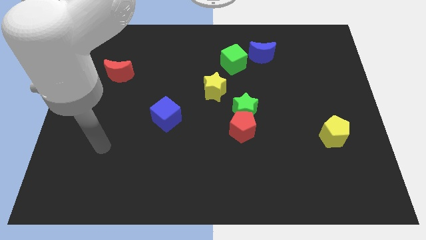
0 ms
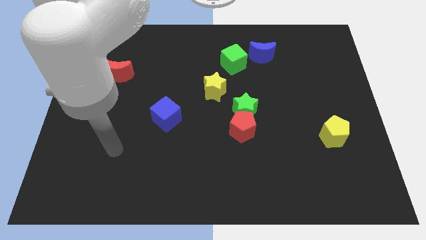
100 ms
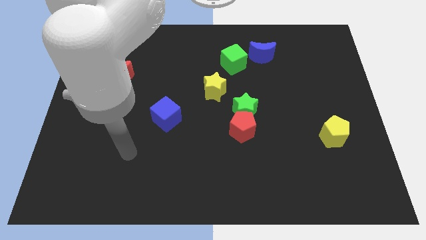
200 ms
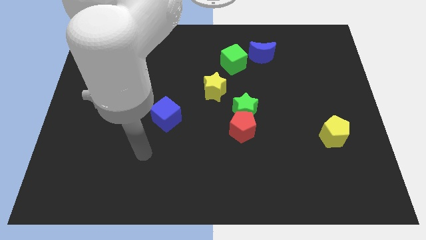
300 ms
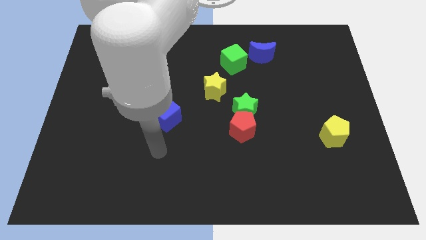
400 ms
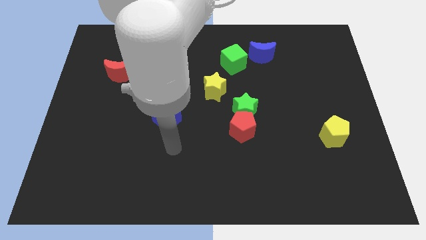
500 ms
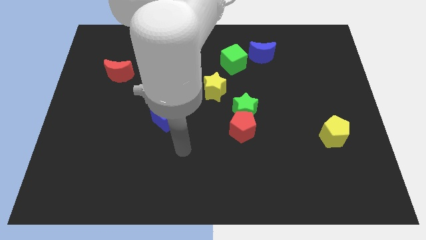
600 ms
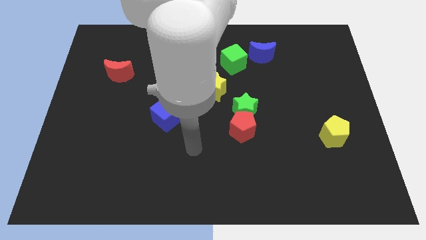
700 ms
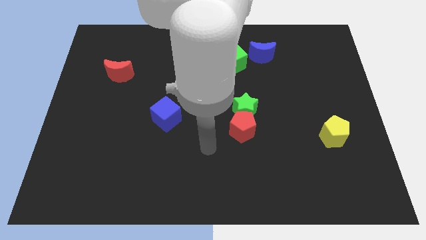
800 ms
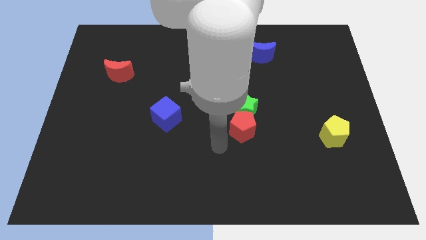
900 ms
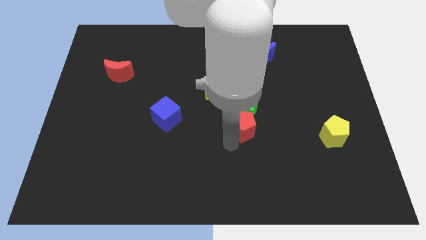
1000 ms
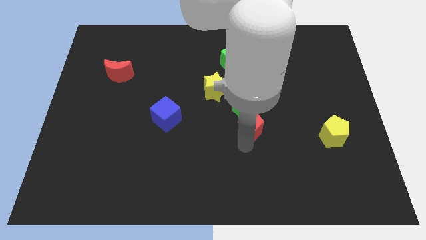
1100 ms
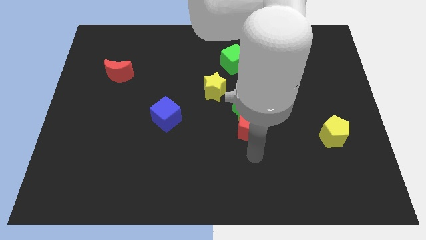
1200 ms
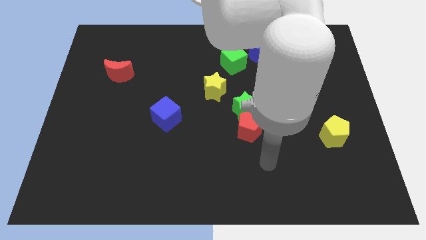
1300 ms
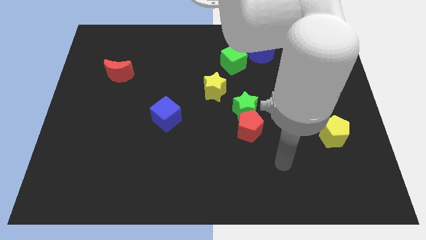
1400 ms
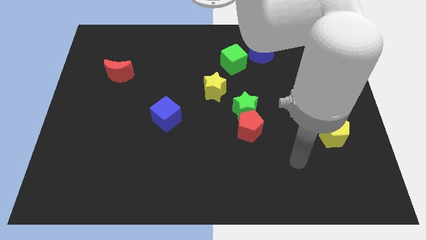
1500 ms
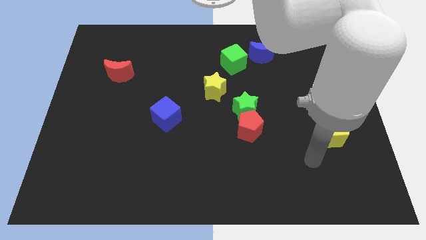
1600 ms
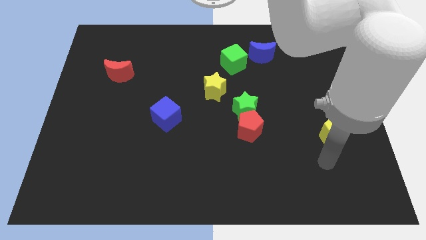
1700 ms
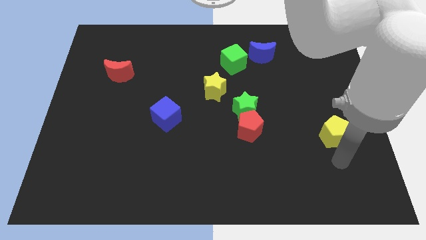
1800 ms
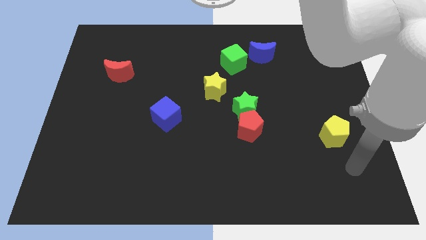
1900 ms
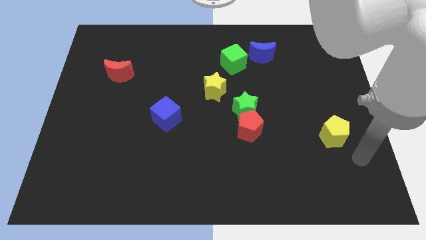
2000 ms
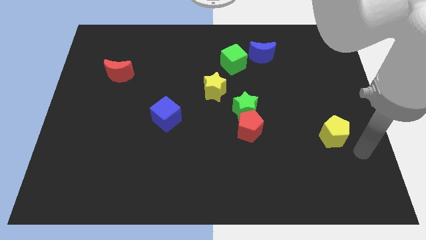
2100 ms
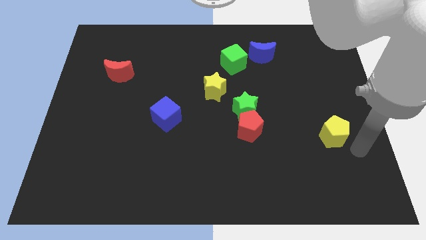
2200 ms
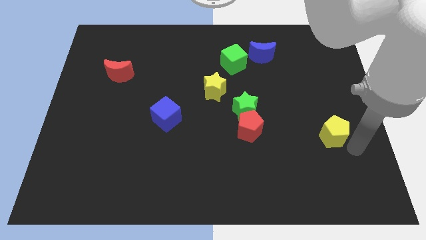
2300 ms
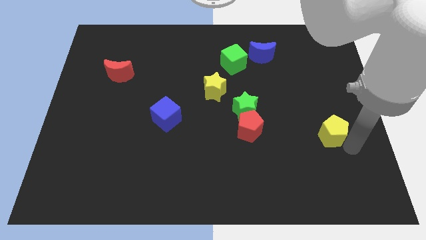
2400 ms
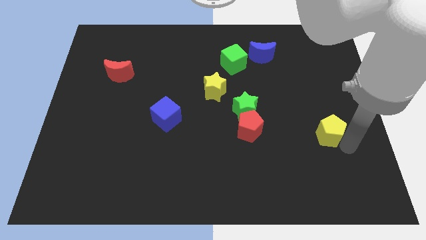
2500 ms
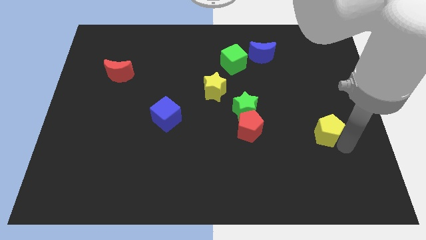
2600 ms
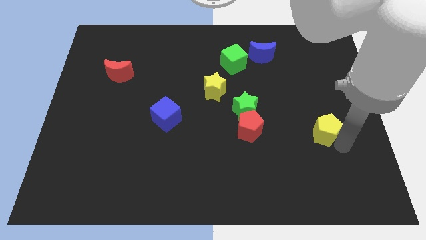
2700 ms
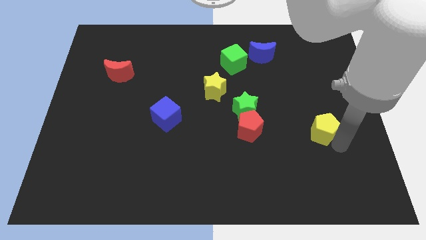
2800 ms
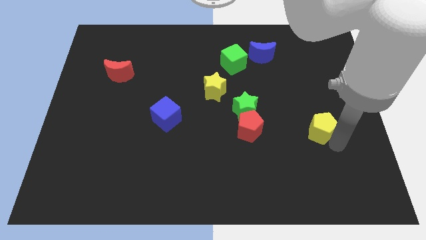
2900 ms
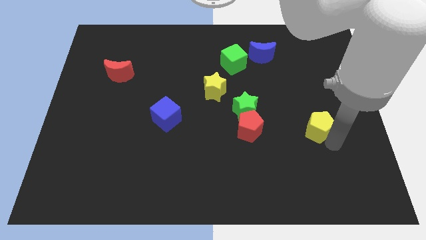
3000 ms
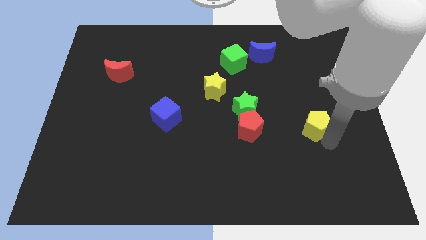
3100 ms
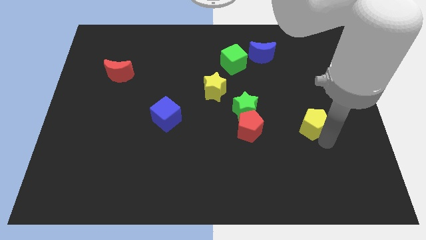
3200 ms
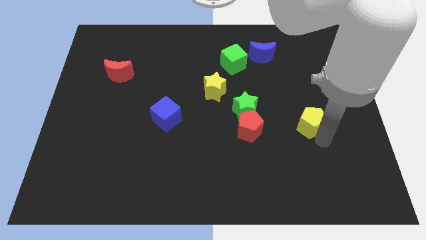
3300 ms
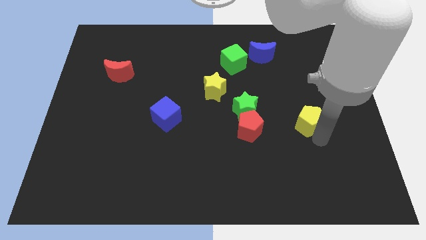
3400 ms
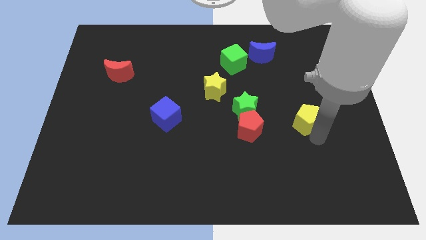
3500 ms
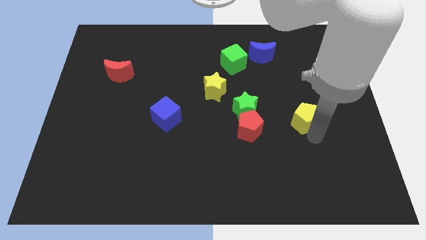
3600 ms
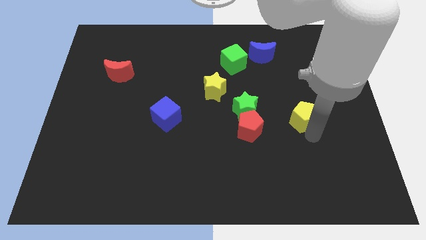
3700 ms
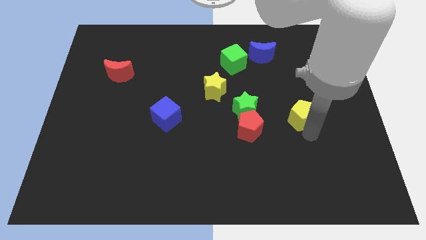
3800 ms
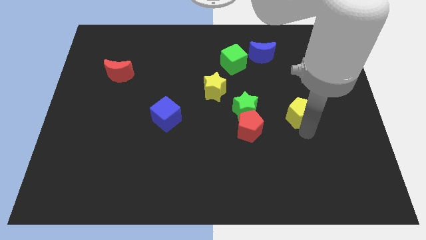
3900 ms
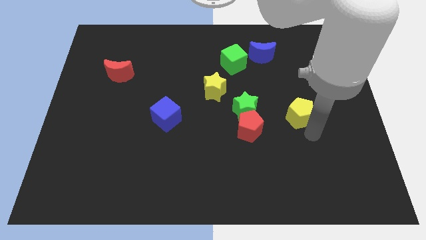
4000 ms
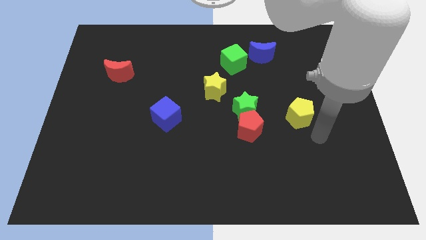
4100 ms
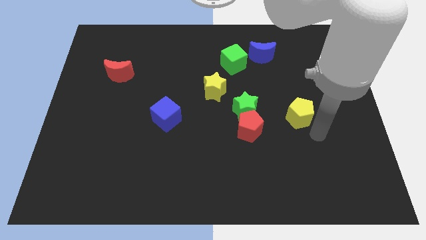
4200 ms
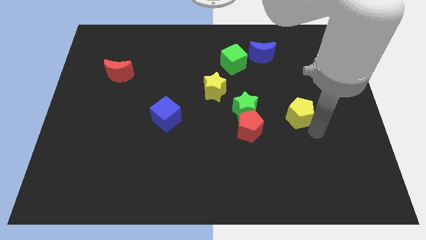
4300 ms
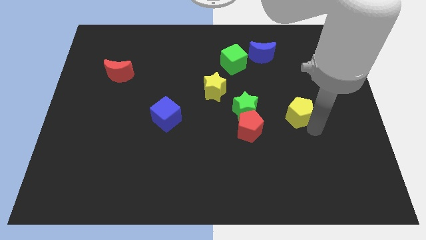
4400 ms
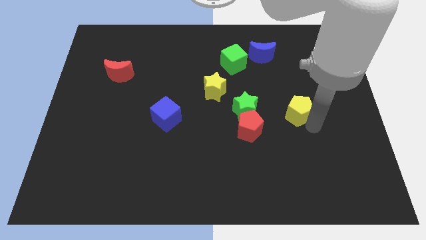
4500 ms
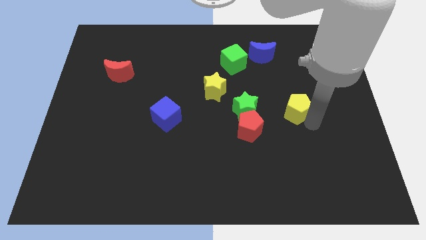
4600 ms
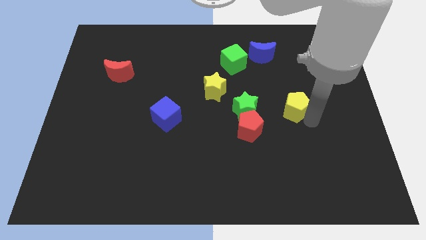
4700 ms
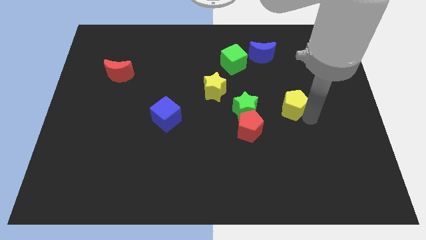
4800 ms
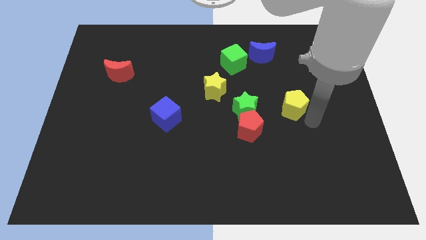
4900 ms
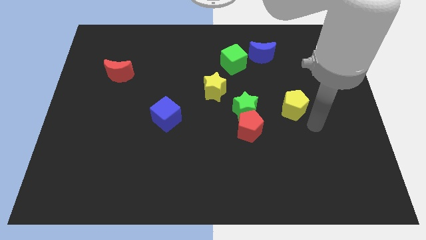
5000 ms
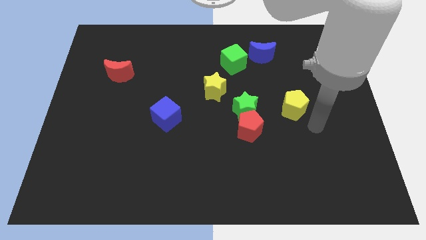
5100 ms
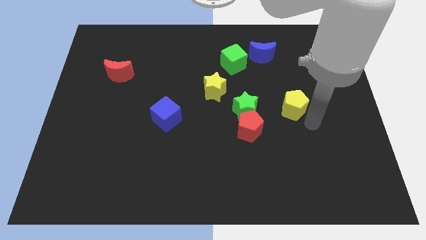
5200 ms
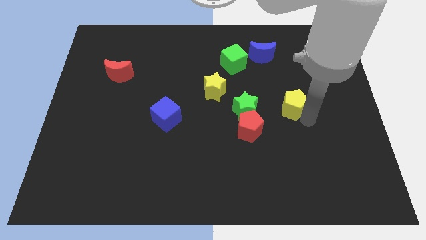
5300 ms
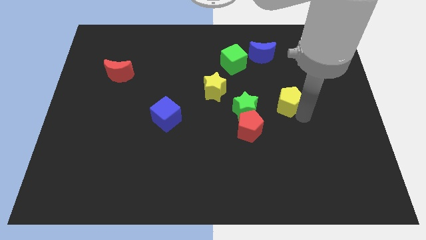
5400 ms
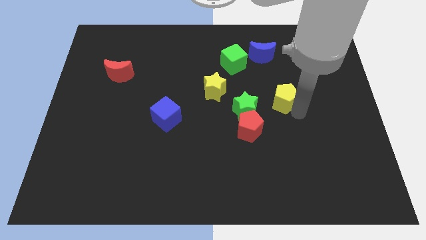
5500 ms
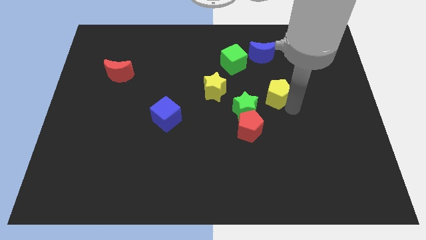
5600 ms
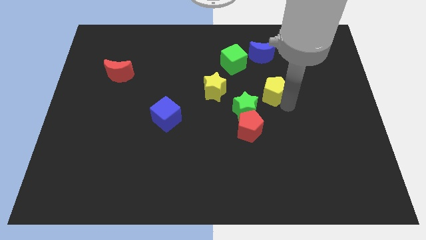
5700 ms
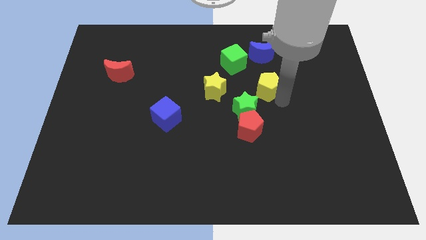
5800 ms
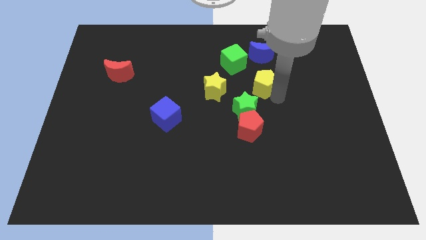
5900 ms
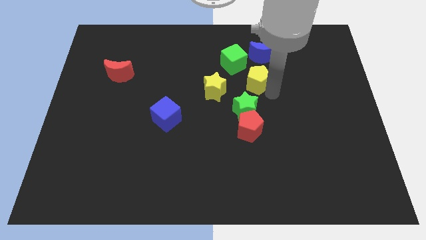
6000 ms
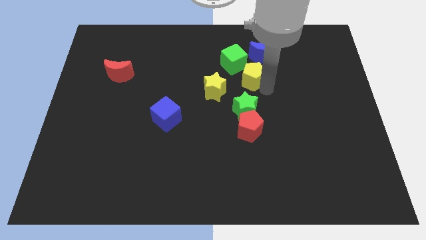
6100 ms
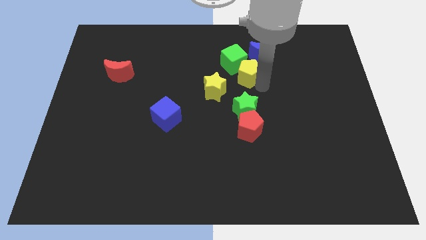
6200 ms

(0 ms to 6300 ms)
push the yellow pentagon close to the green cube

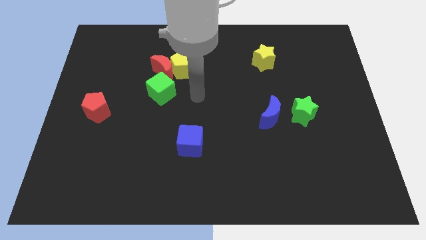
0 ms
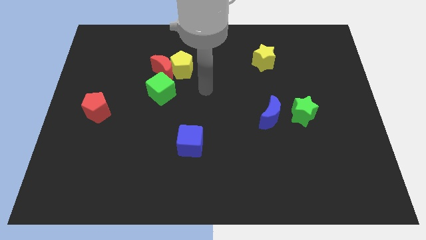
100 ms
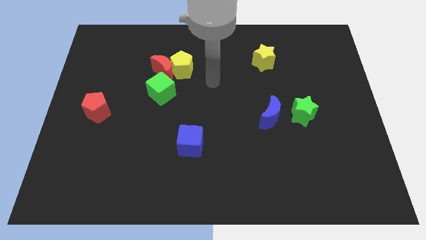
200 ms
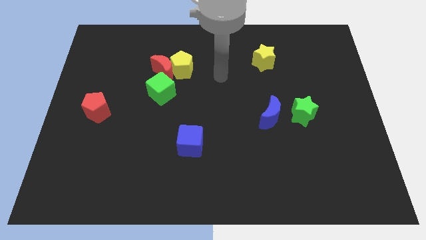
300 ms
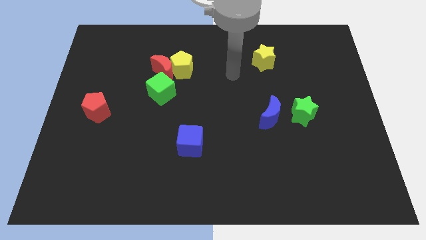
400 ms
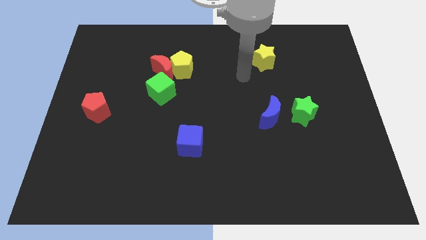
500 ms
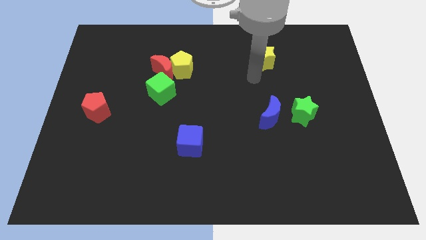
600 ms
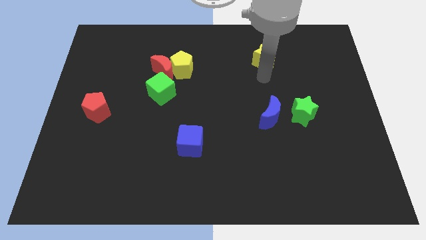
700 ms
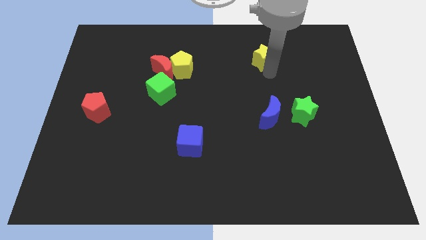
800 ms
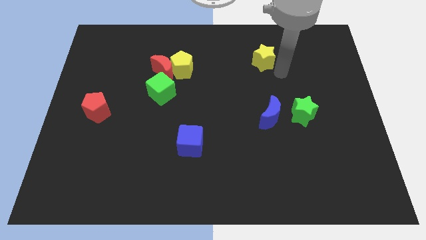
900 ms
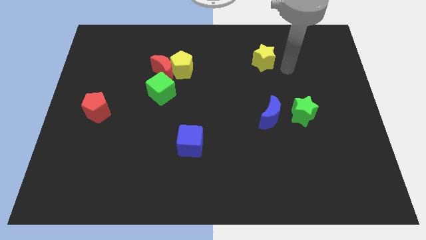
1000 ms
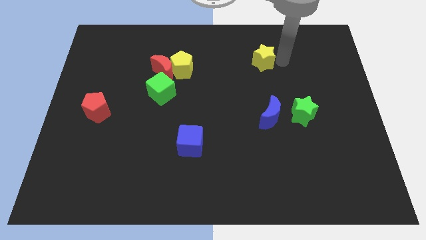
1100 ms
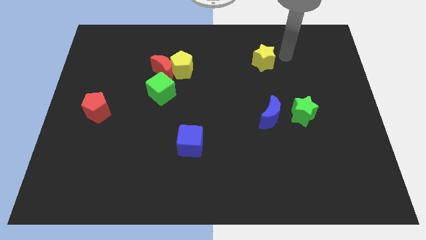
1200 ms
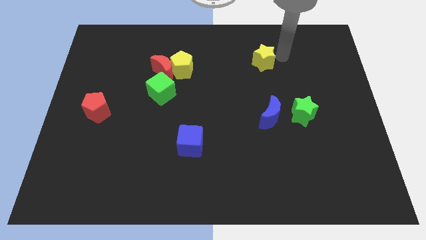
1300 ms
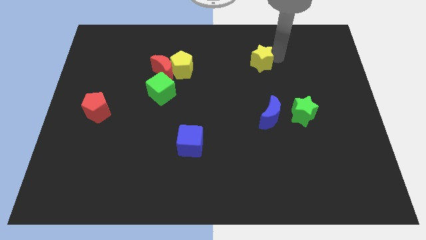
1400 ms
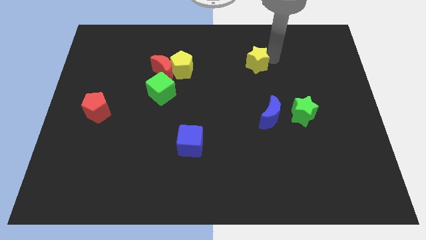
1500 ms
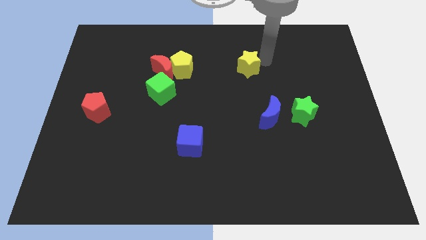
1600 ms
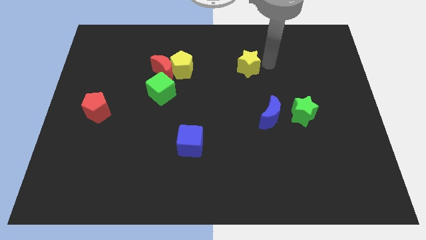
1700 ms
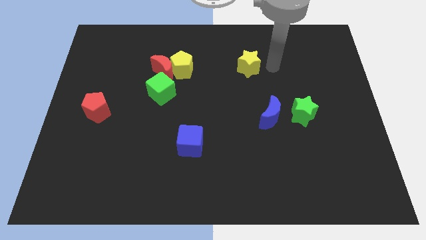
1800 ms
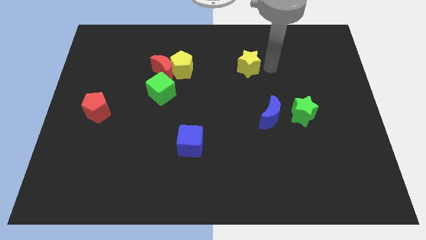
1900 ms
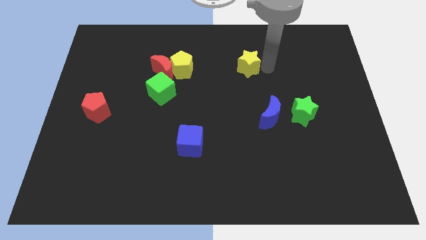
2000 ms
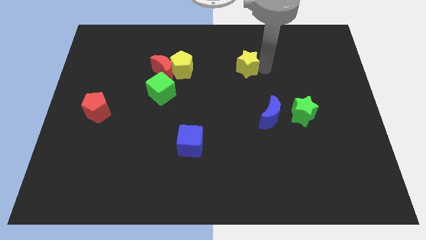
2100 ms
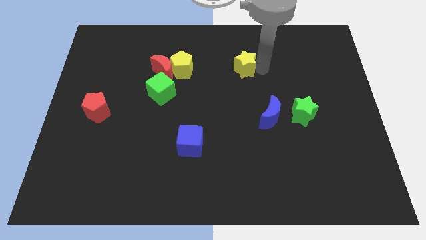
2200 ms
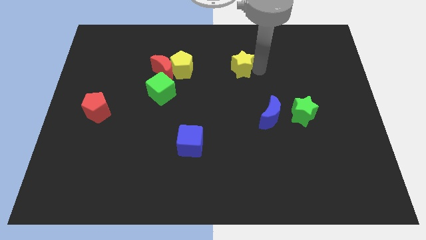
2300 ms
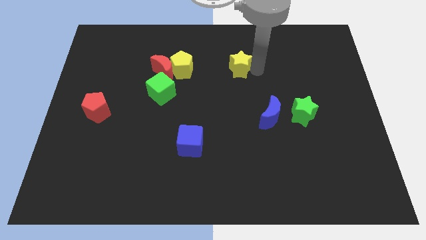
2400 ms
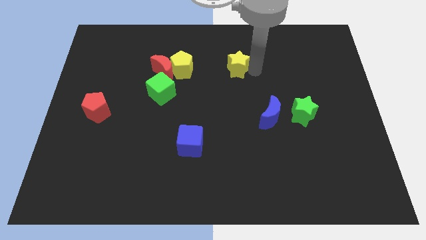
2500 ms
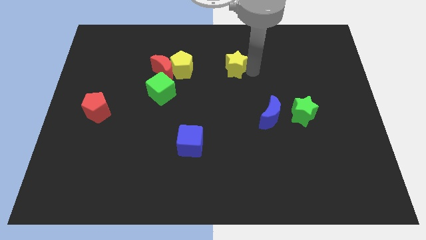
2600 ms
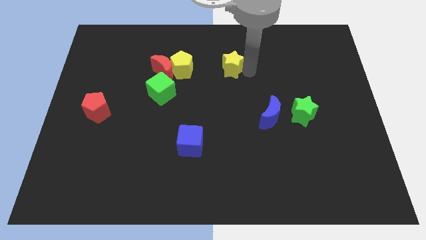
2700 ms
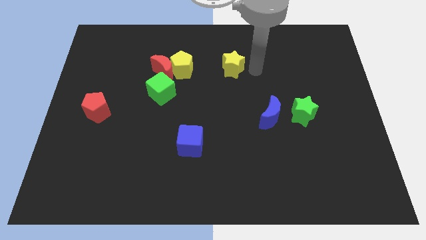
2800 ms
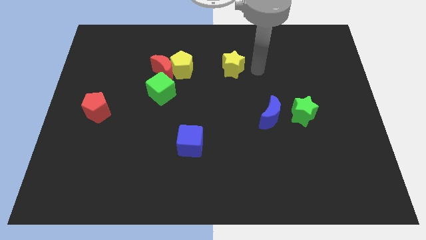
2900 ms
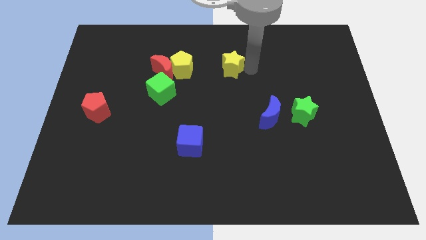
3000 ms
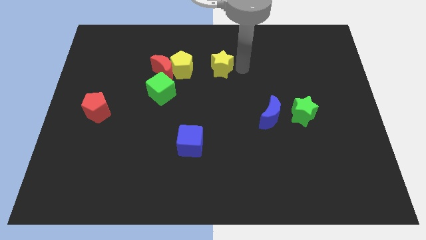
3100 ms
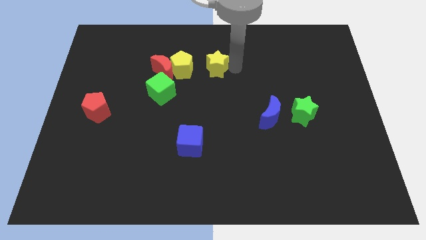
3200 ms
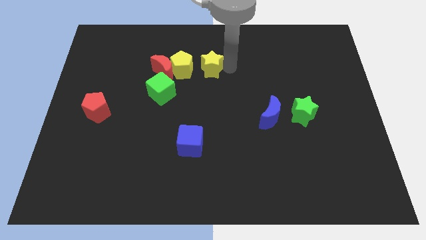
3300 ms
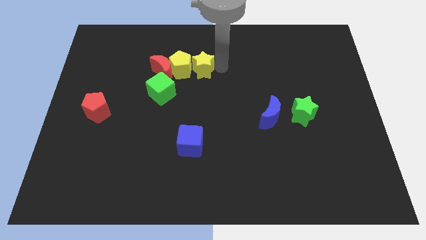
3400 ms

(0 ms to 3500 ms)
move the yellow star next to the yellow pentagon
